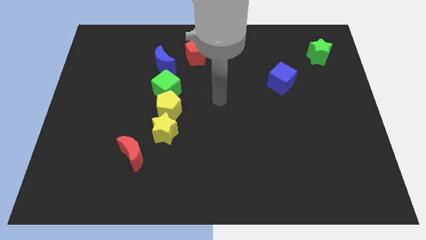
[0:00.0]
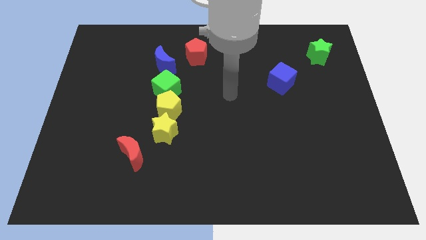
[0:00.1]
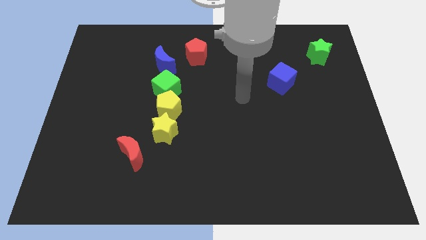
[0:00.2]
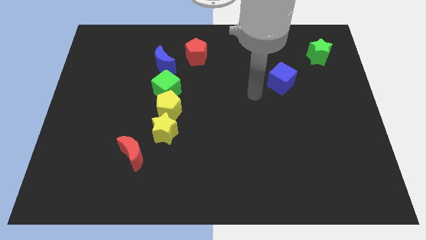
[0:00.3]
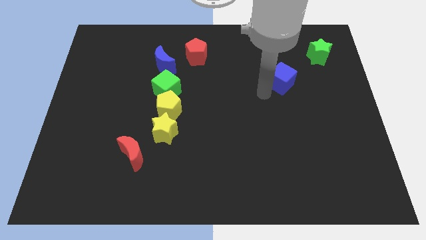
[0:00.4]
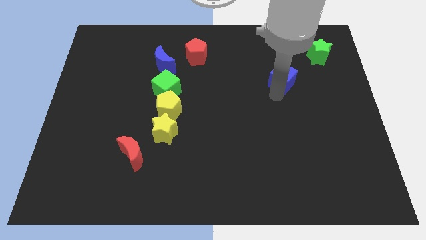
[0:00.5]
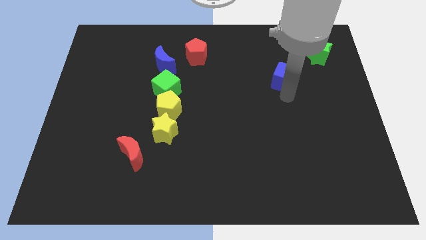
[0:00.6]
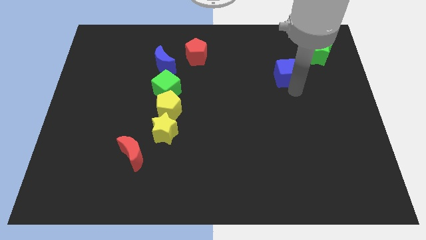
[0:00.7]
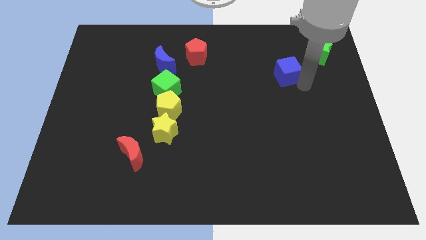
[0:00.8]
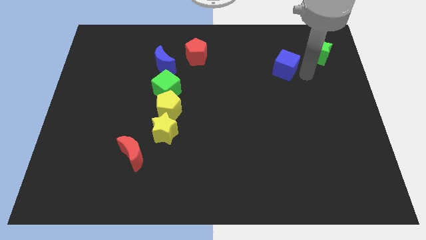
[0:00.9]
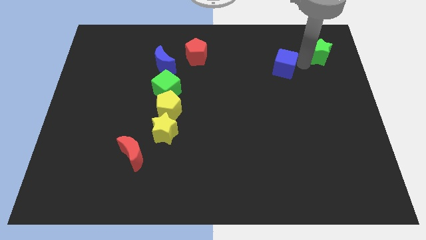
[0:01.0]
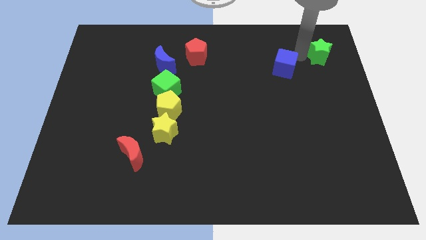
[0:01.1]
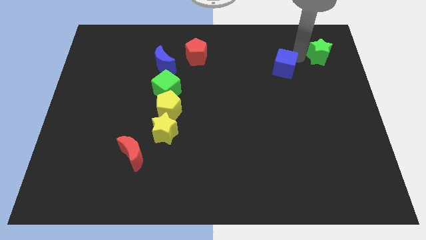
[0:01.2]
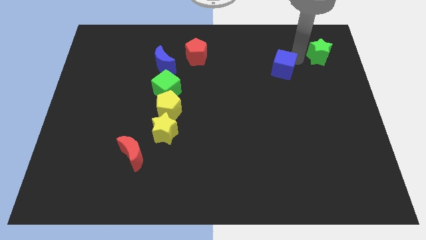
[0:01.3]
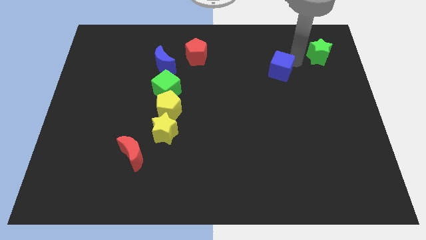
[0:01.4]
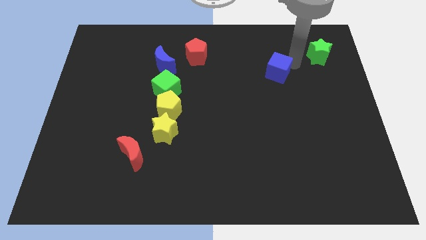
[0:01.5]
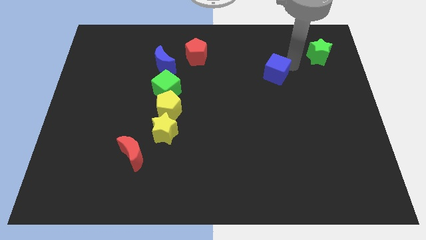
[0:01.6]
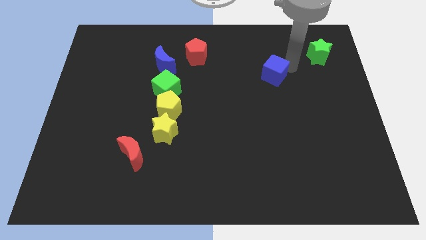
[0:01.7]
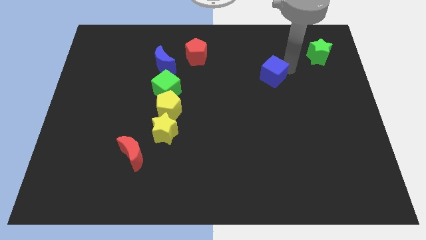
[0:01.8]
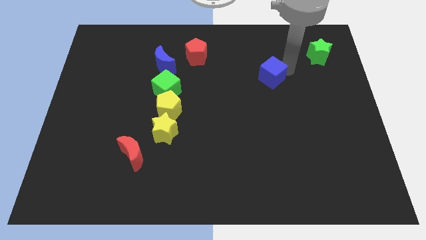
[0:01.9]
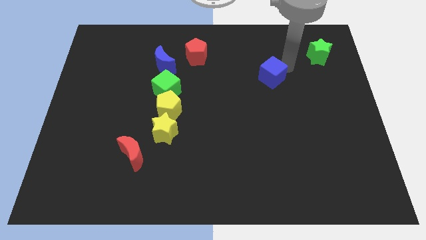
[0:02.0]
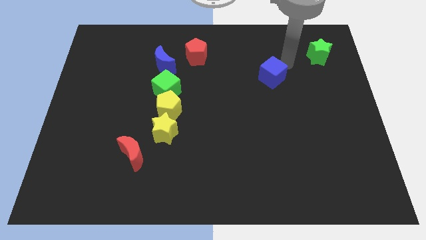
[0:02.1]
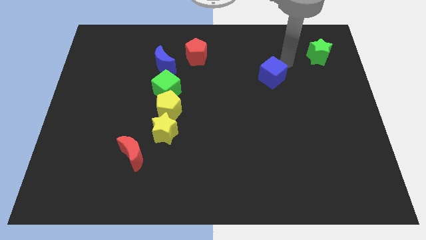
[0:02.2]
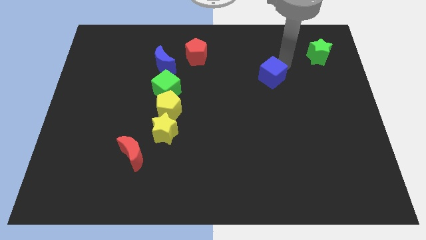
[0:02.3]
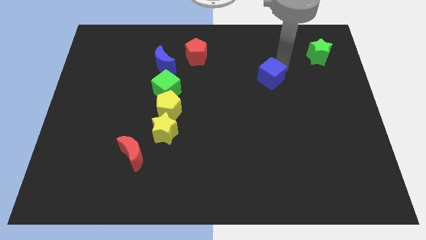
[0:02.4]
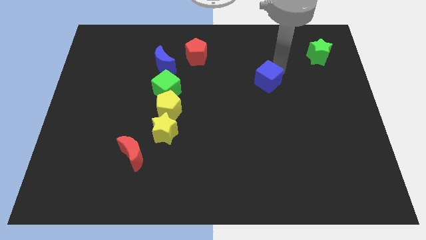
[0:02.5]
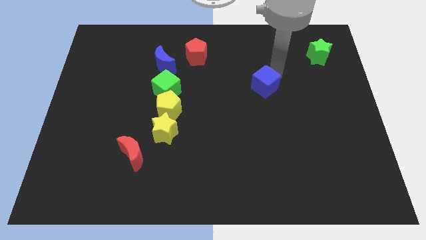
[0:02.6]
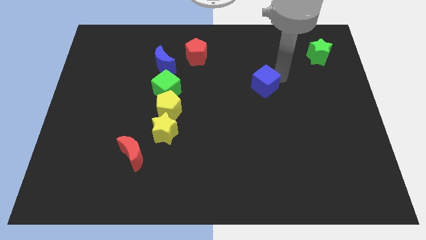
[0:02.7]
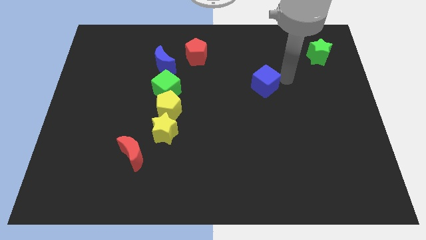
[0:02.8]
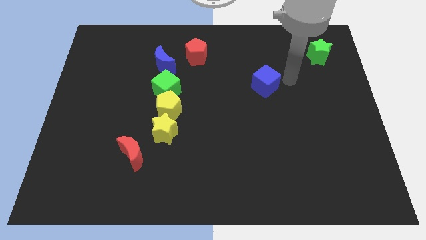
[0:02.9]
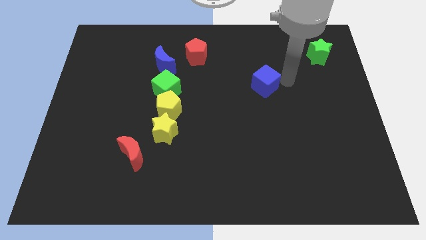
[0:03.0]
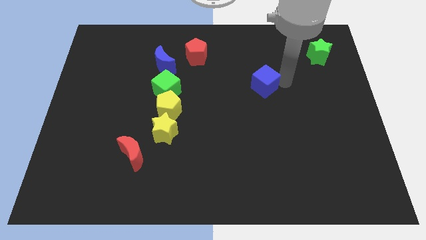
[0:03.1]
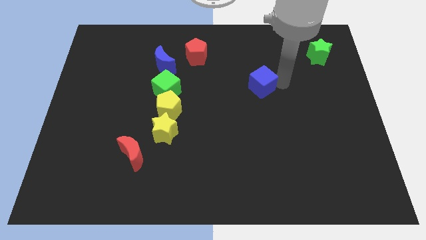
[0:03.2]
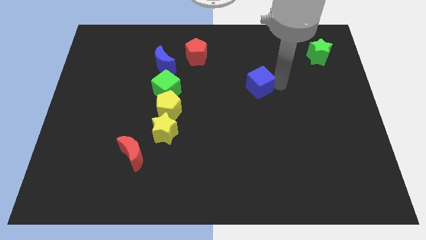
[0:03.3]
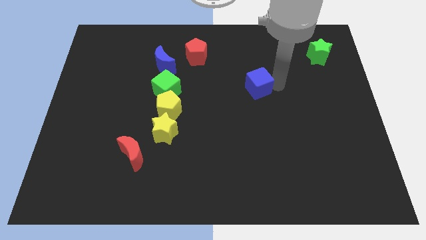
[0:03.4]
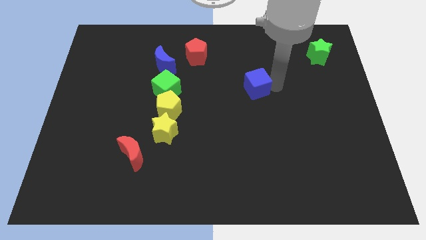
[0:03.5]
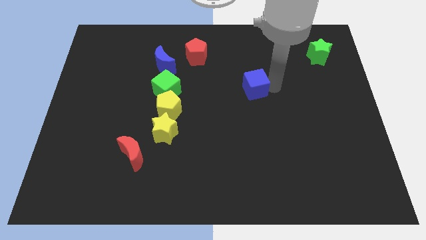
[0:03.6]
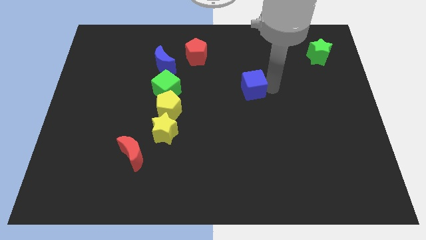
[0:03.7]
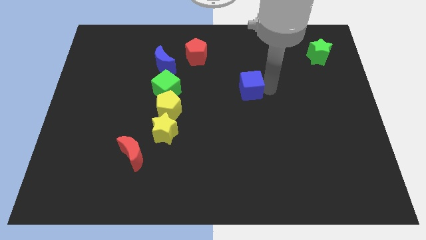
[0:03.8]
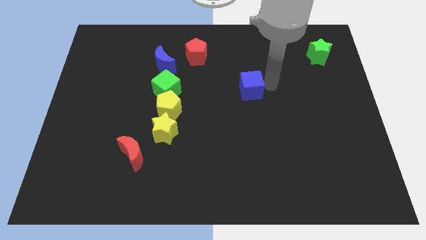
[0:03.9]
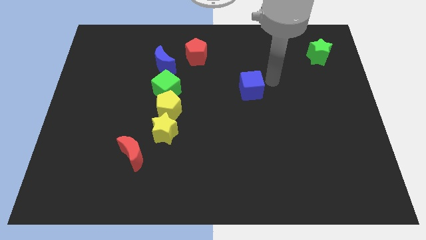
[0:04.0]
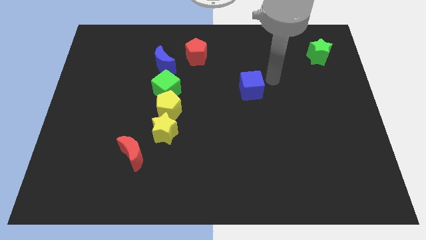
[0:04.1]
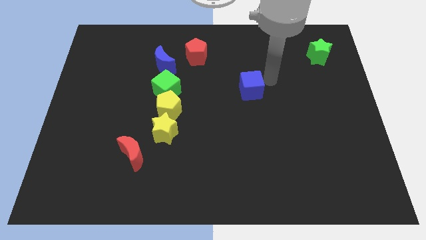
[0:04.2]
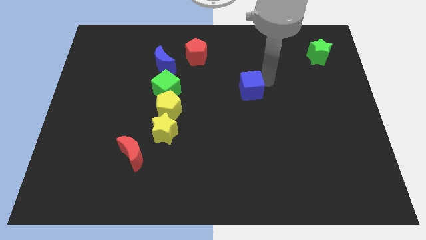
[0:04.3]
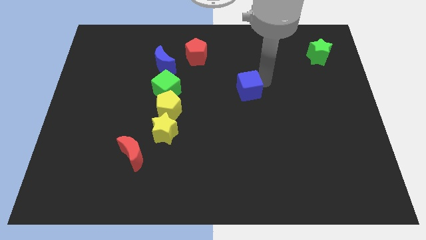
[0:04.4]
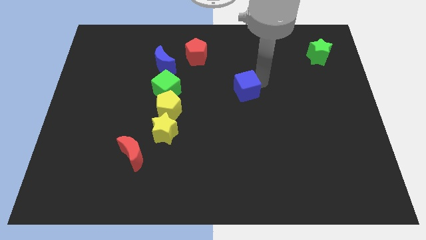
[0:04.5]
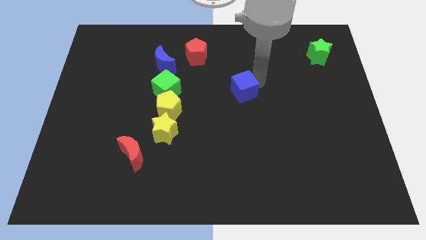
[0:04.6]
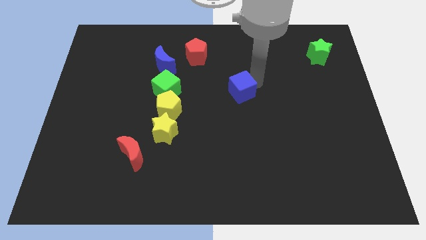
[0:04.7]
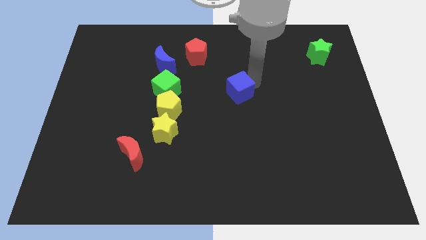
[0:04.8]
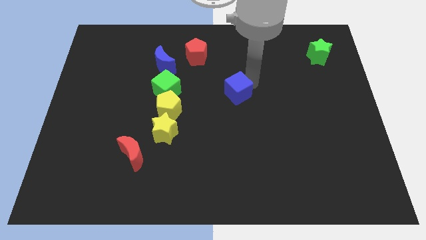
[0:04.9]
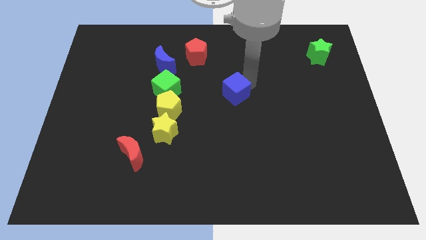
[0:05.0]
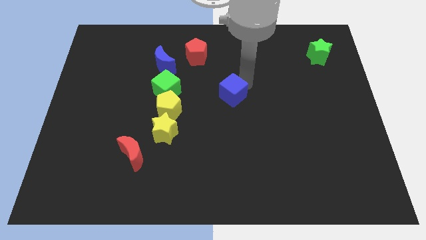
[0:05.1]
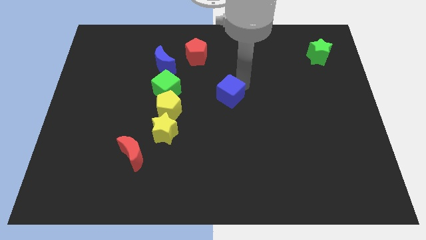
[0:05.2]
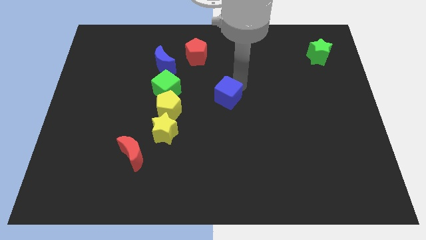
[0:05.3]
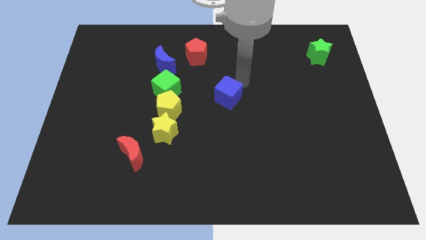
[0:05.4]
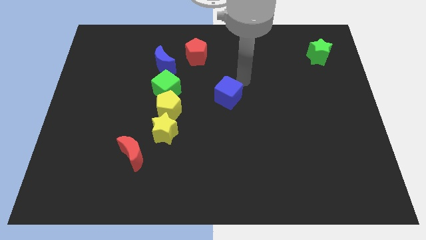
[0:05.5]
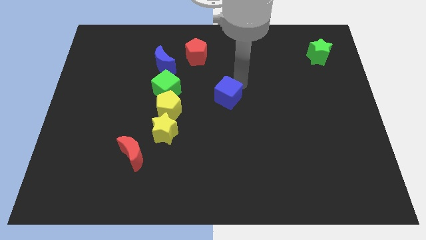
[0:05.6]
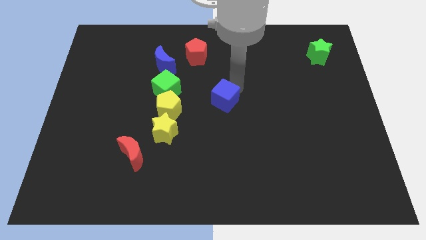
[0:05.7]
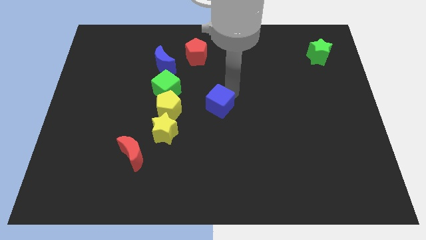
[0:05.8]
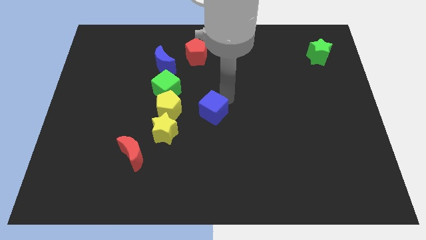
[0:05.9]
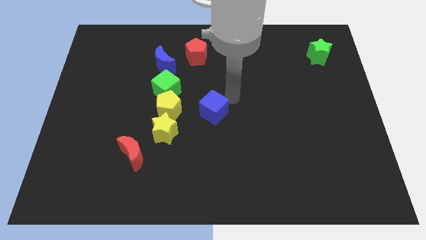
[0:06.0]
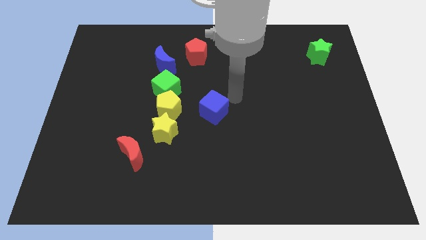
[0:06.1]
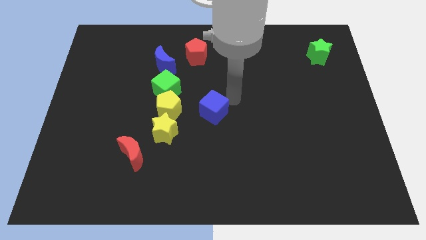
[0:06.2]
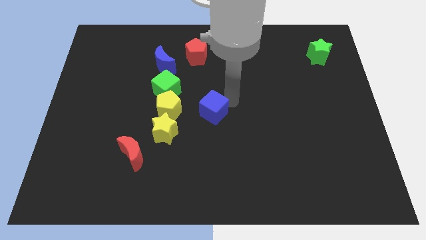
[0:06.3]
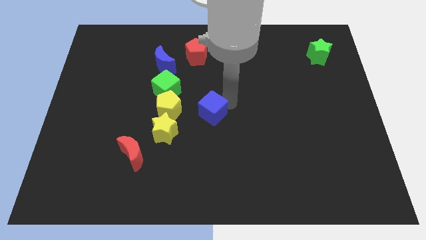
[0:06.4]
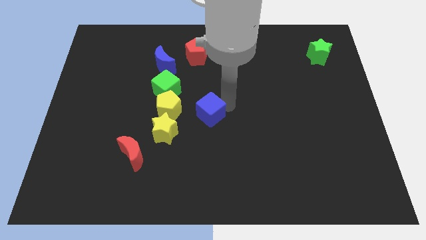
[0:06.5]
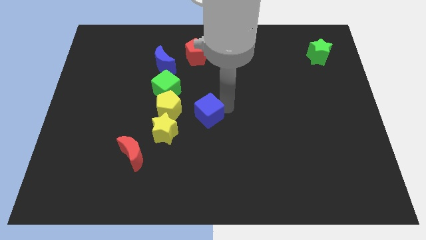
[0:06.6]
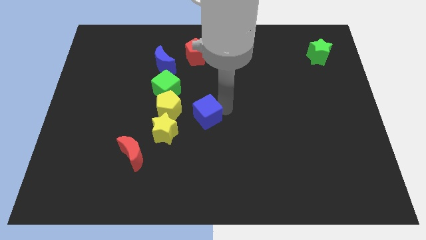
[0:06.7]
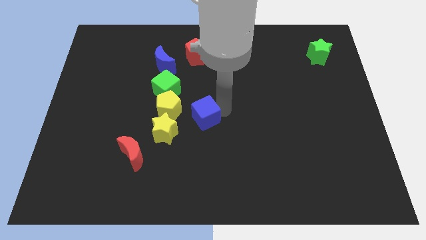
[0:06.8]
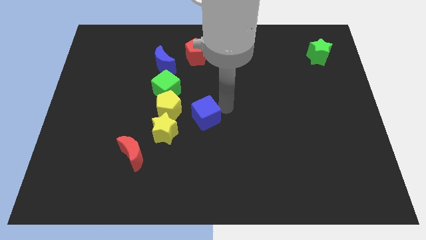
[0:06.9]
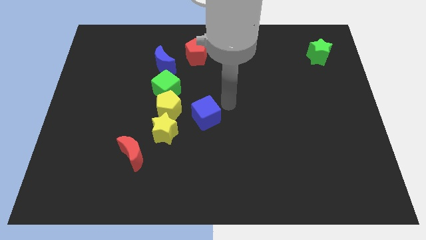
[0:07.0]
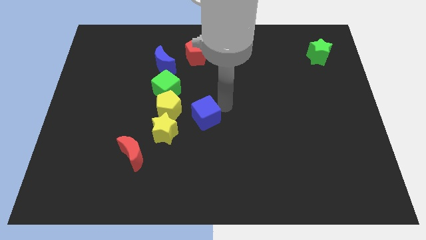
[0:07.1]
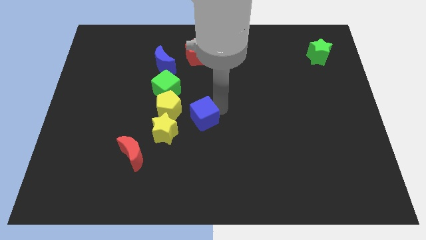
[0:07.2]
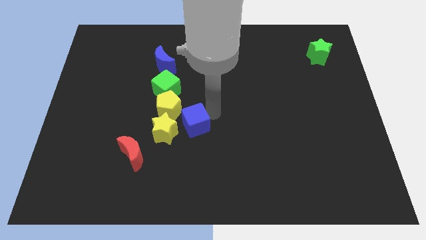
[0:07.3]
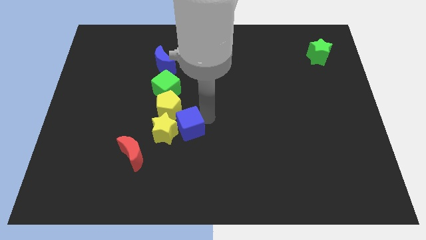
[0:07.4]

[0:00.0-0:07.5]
slide the blue cube towards the yellow star
